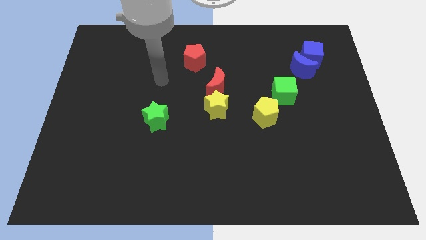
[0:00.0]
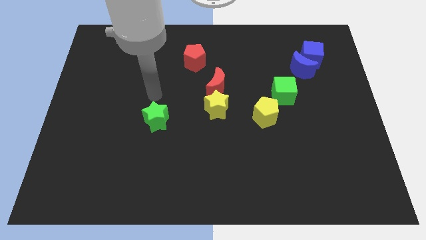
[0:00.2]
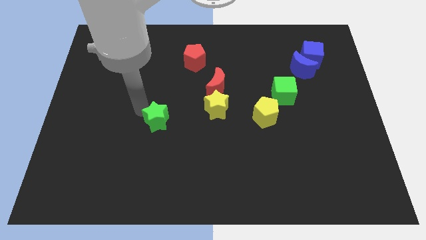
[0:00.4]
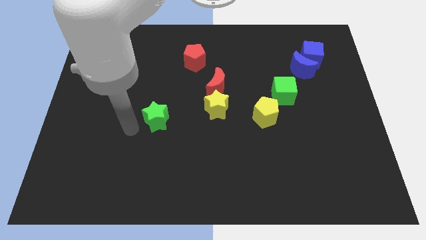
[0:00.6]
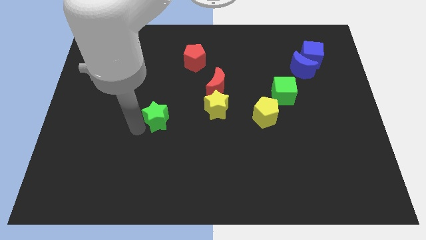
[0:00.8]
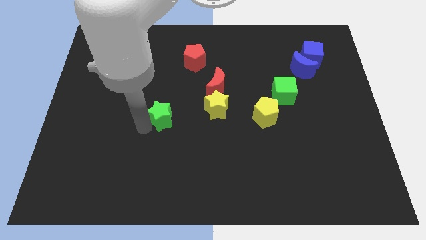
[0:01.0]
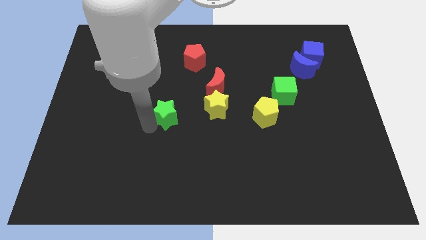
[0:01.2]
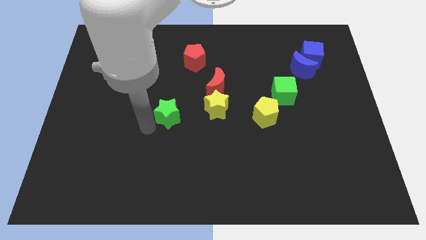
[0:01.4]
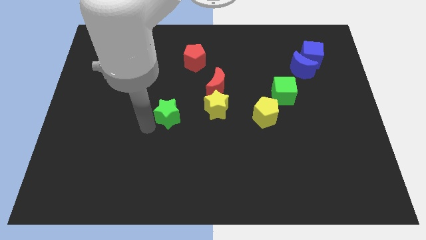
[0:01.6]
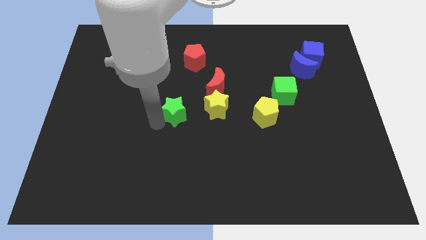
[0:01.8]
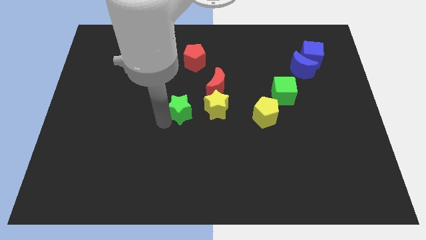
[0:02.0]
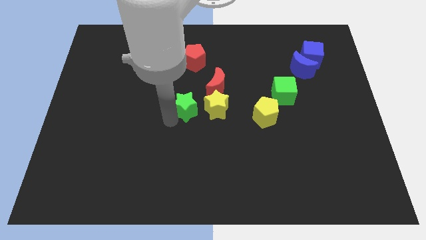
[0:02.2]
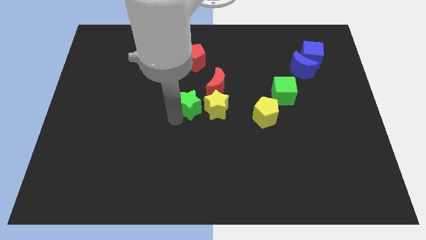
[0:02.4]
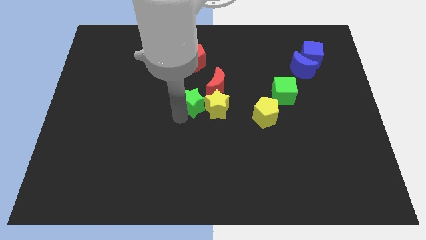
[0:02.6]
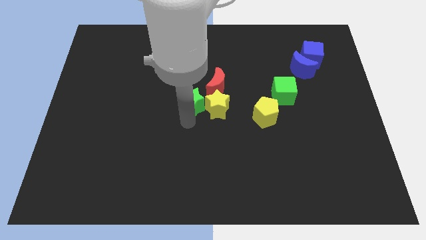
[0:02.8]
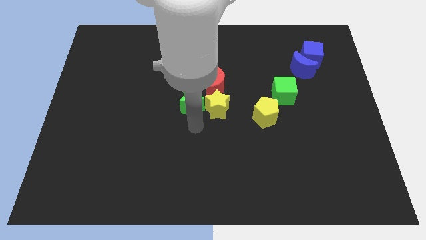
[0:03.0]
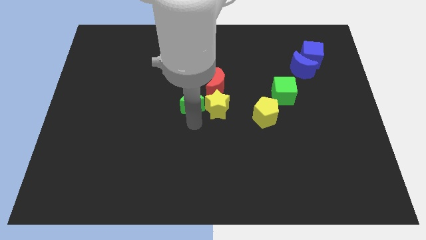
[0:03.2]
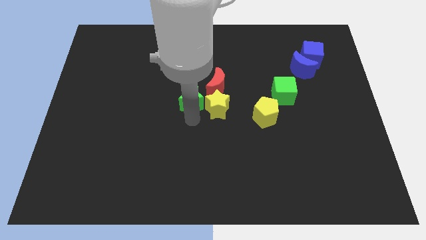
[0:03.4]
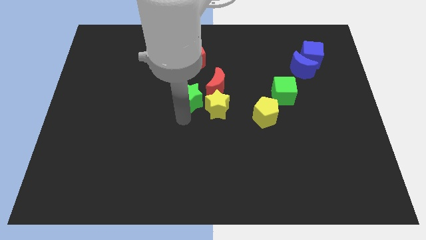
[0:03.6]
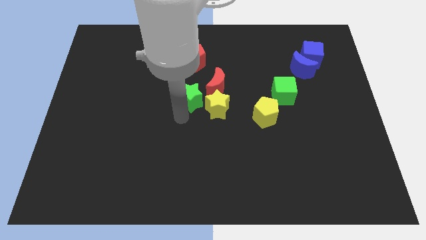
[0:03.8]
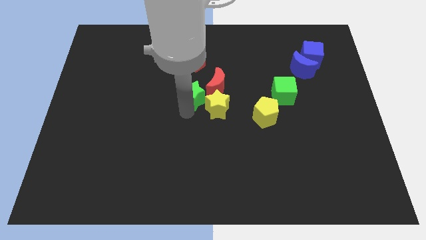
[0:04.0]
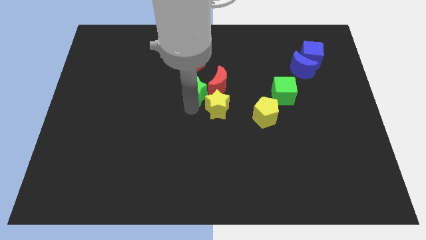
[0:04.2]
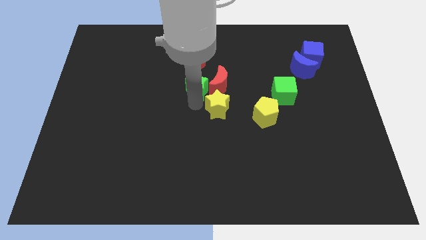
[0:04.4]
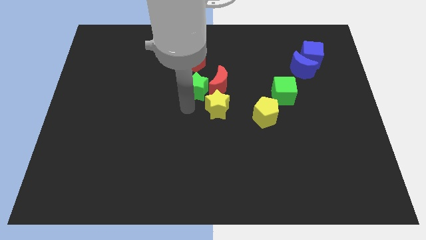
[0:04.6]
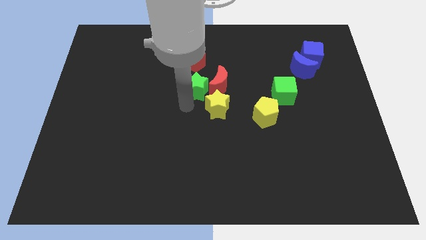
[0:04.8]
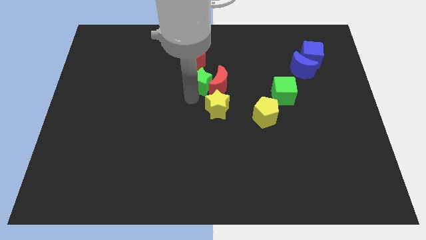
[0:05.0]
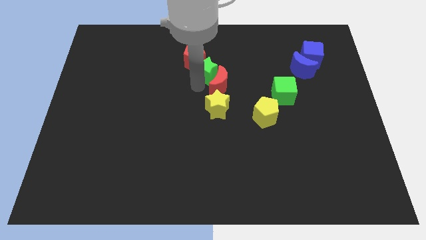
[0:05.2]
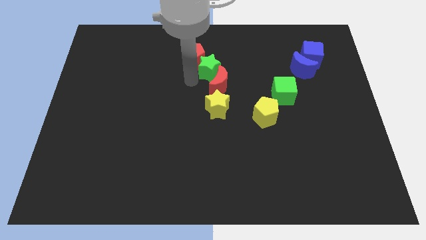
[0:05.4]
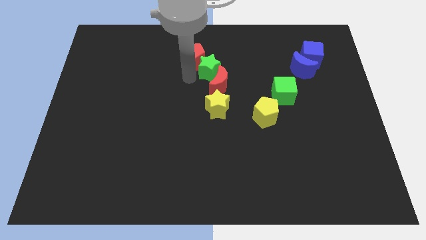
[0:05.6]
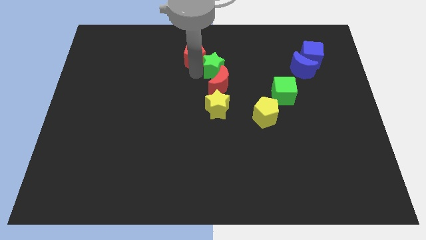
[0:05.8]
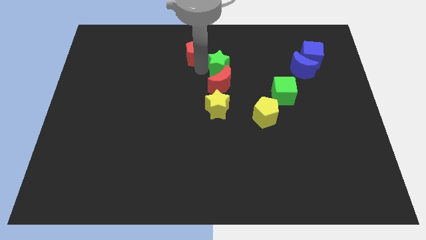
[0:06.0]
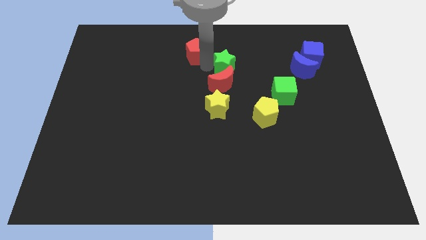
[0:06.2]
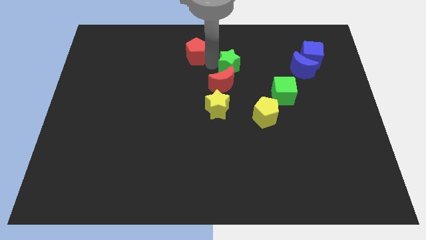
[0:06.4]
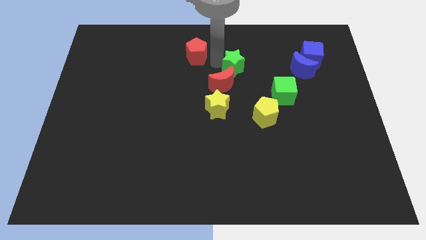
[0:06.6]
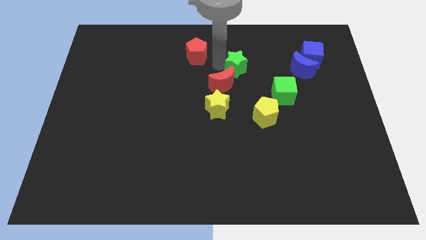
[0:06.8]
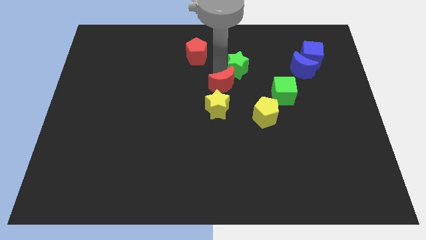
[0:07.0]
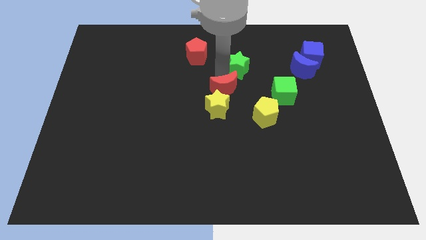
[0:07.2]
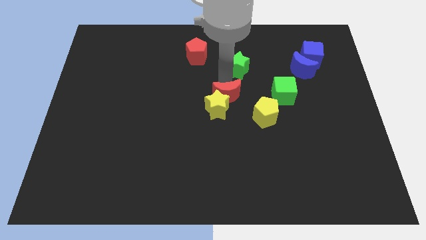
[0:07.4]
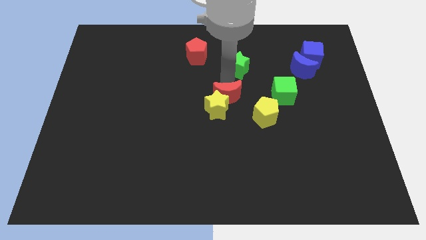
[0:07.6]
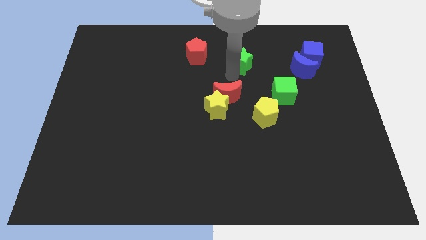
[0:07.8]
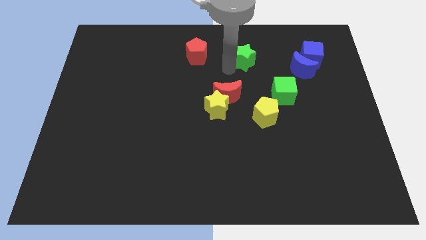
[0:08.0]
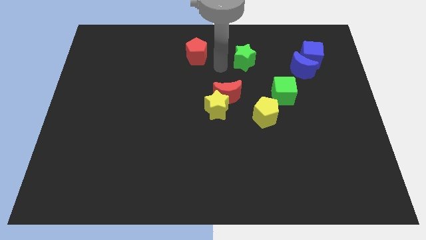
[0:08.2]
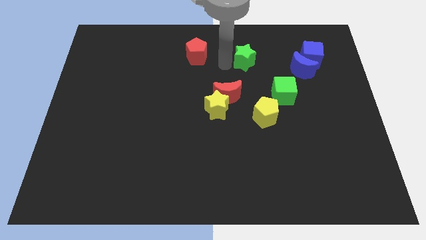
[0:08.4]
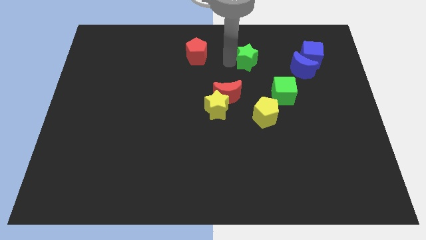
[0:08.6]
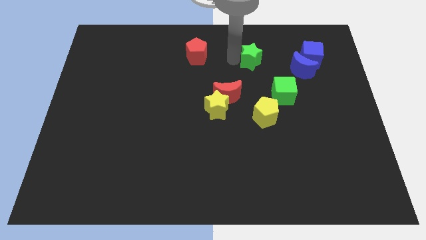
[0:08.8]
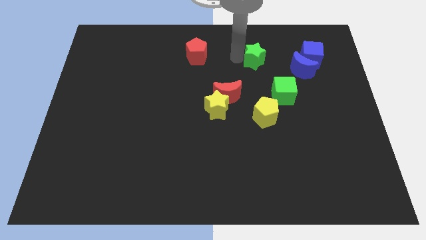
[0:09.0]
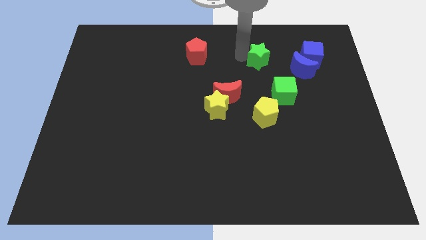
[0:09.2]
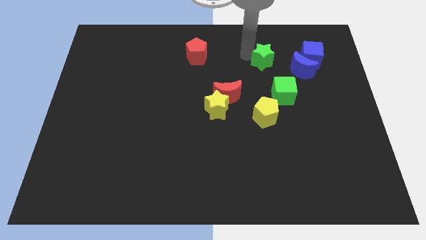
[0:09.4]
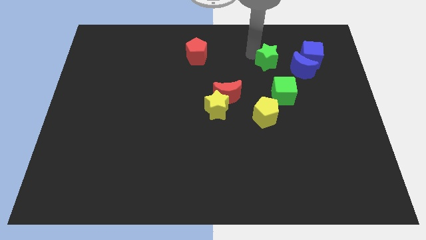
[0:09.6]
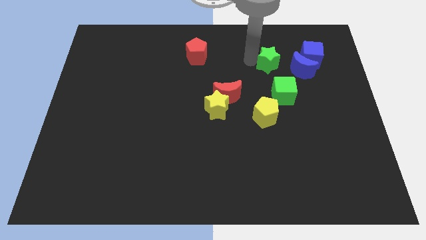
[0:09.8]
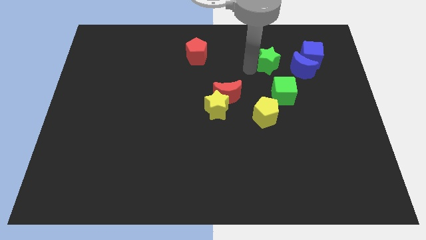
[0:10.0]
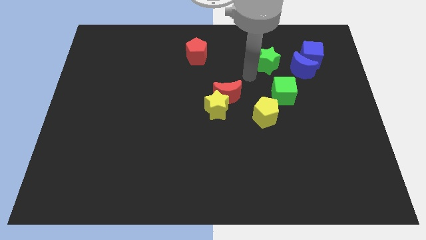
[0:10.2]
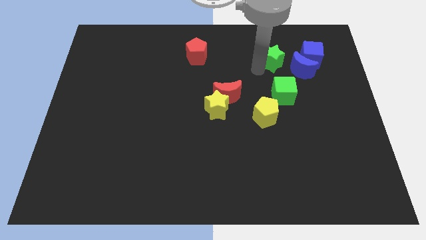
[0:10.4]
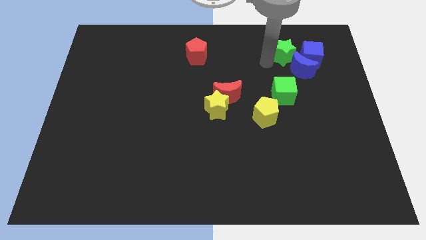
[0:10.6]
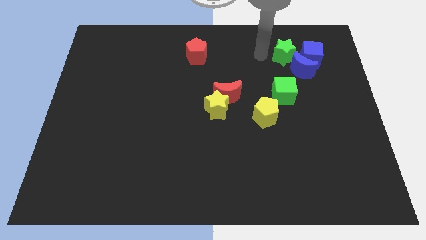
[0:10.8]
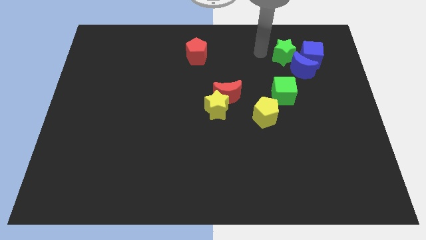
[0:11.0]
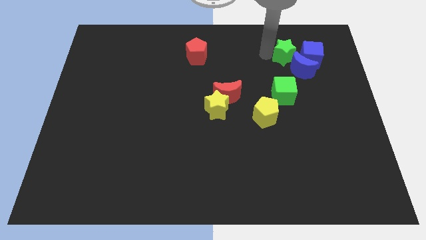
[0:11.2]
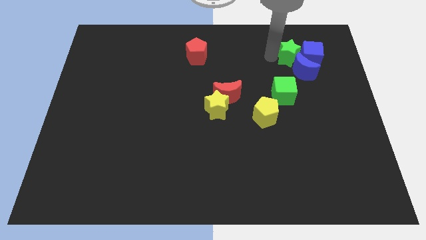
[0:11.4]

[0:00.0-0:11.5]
push the green star towards the blue cube

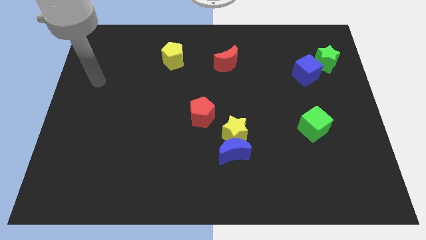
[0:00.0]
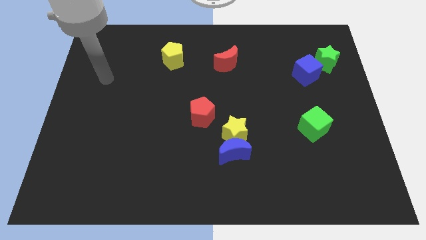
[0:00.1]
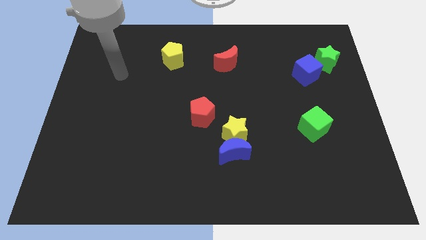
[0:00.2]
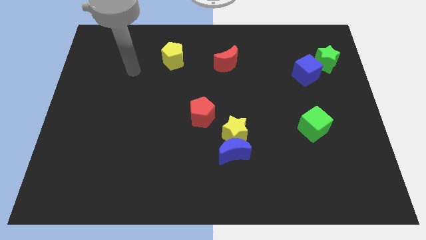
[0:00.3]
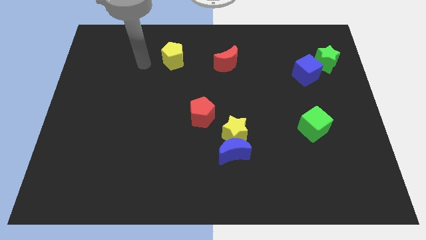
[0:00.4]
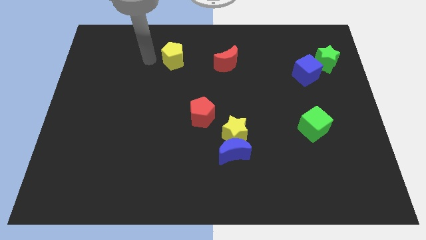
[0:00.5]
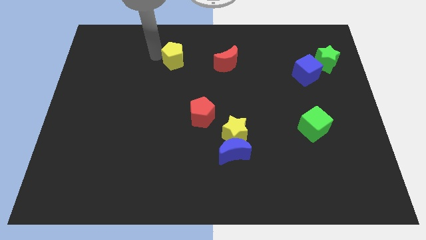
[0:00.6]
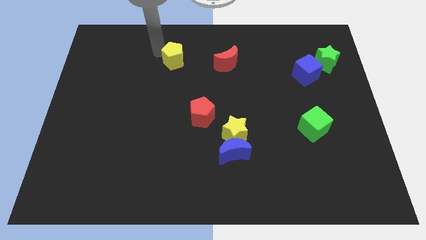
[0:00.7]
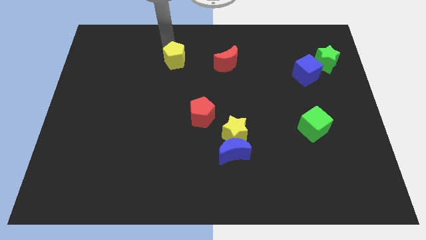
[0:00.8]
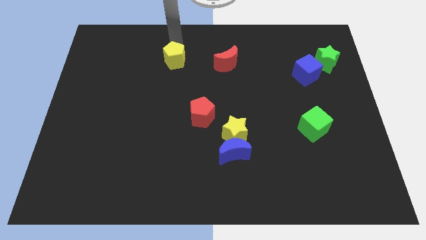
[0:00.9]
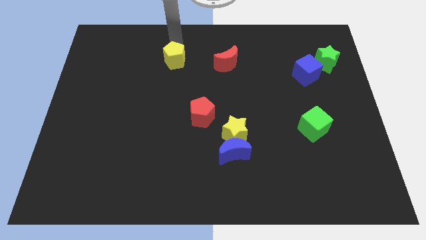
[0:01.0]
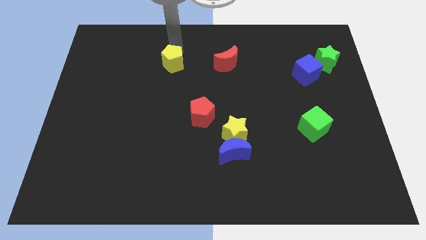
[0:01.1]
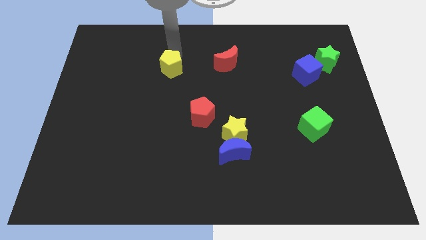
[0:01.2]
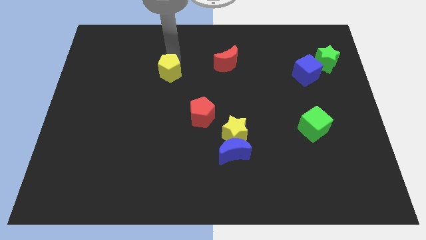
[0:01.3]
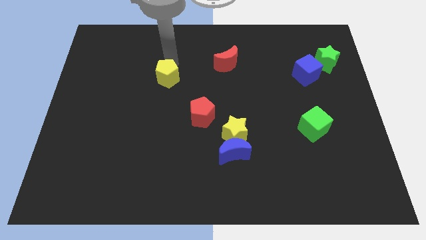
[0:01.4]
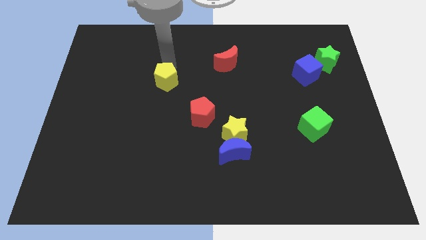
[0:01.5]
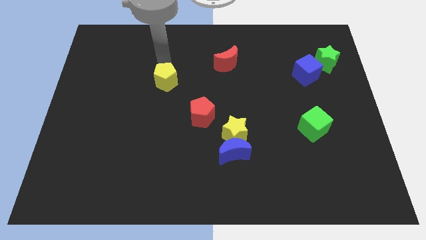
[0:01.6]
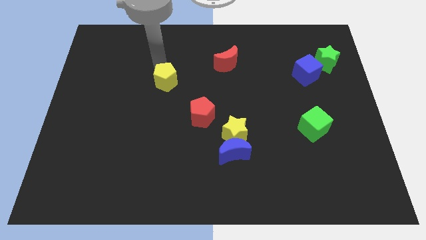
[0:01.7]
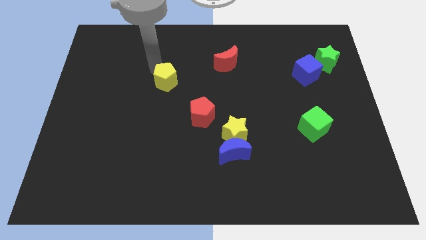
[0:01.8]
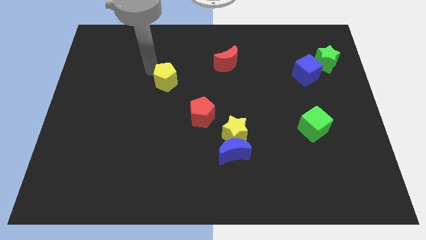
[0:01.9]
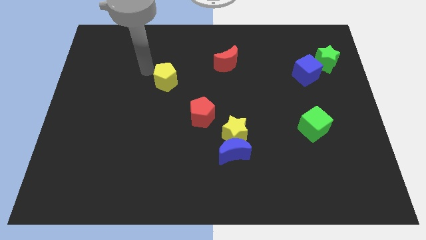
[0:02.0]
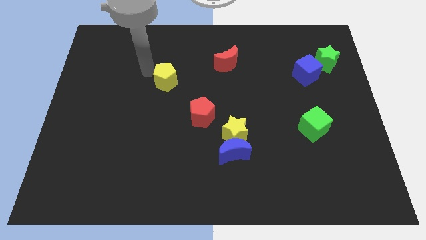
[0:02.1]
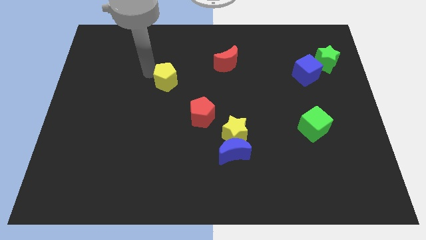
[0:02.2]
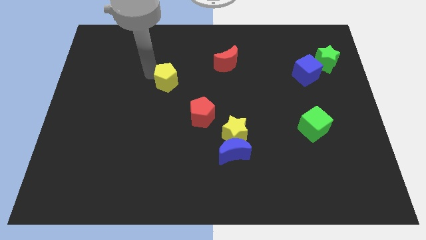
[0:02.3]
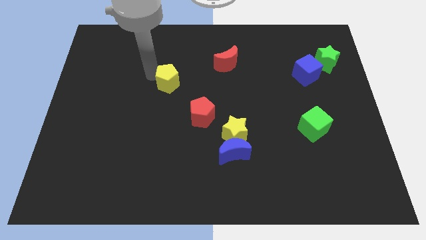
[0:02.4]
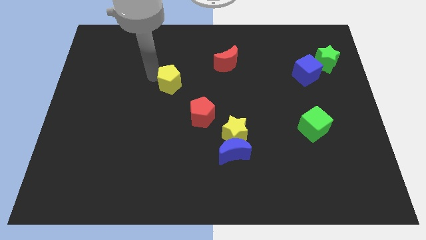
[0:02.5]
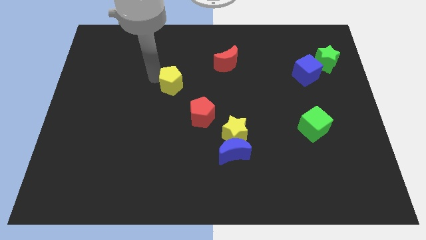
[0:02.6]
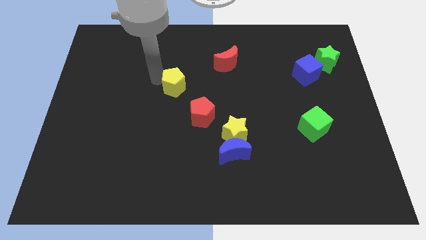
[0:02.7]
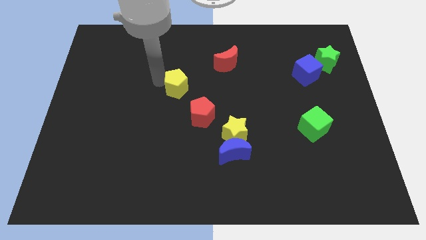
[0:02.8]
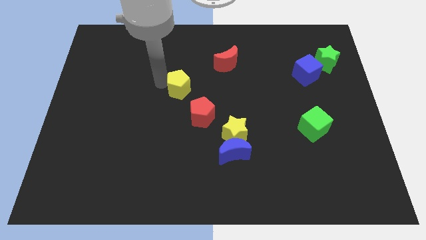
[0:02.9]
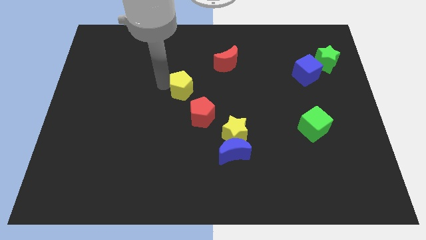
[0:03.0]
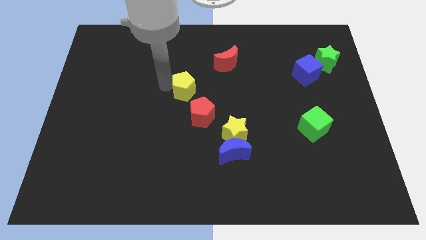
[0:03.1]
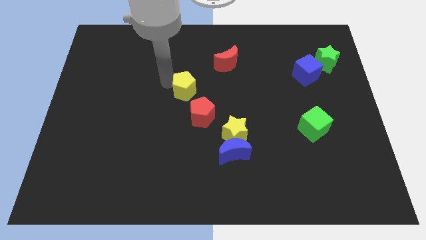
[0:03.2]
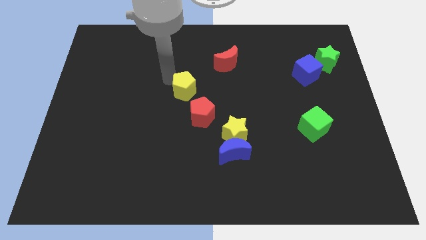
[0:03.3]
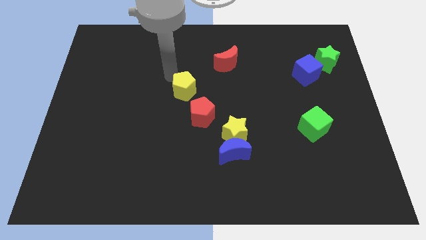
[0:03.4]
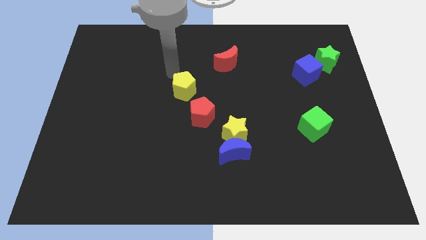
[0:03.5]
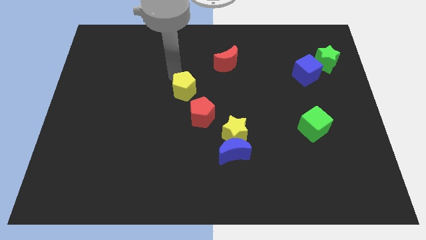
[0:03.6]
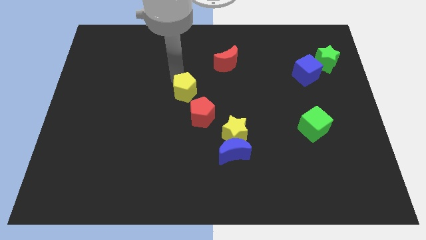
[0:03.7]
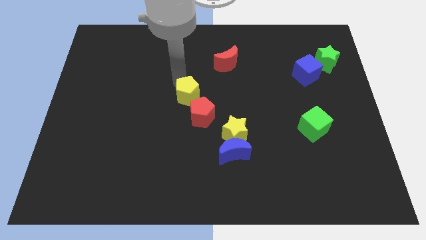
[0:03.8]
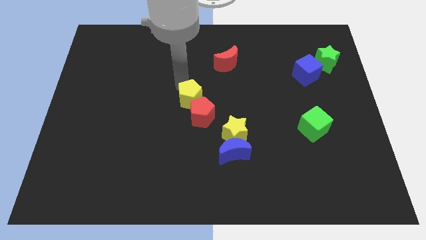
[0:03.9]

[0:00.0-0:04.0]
move the yellow pentagon towards the red pentagon
